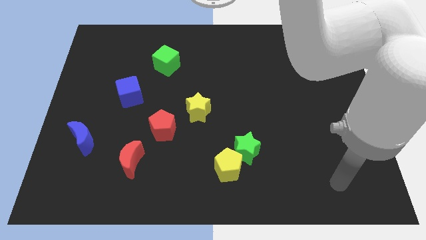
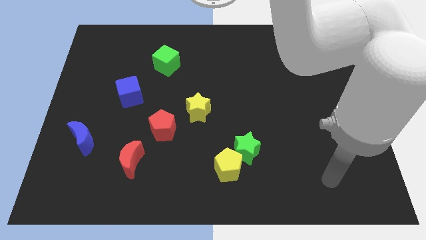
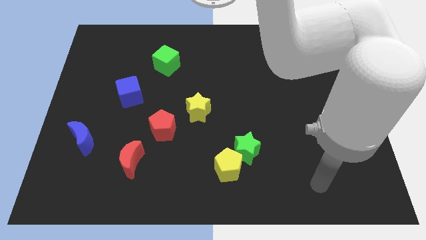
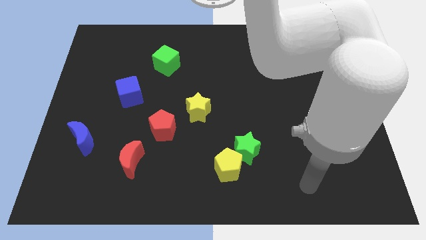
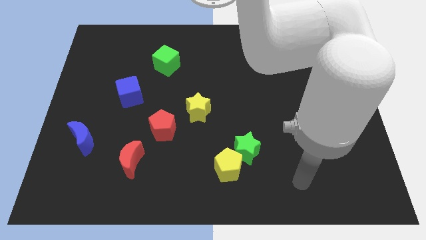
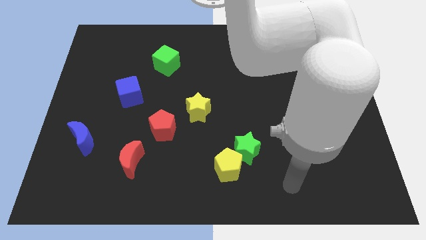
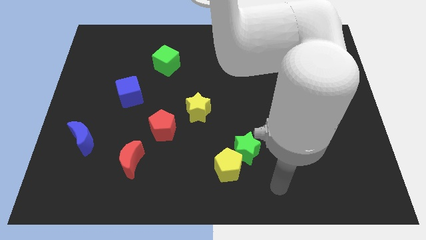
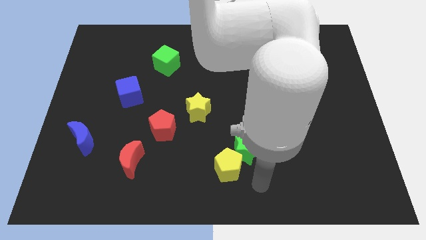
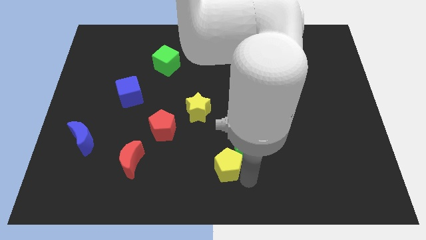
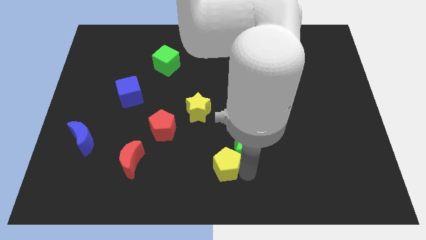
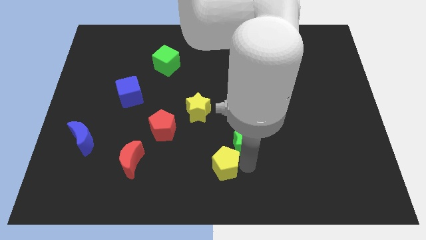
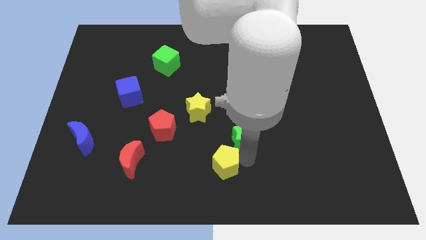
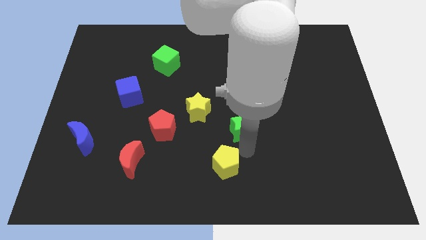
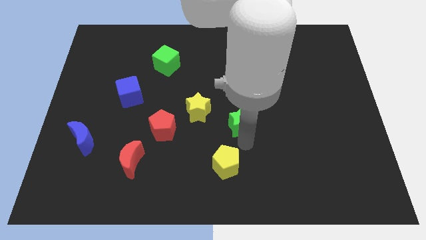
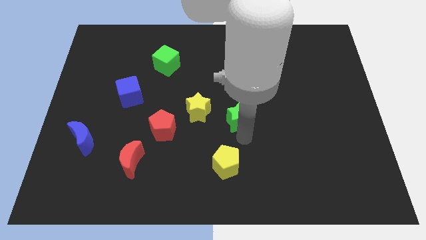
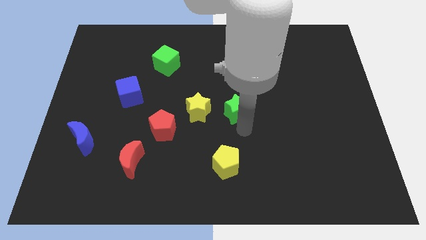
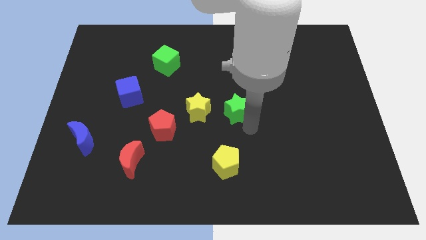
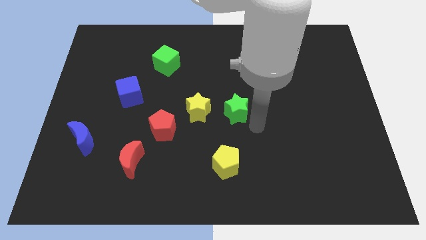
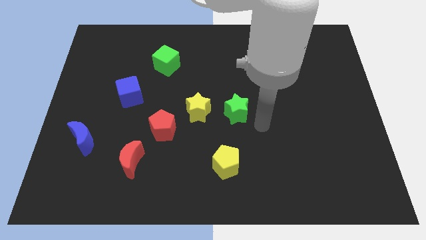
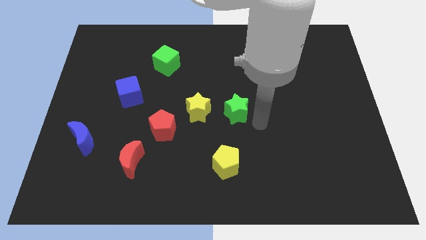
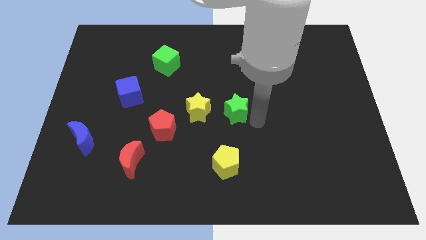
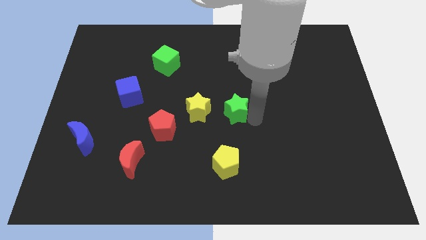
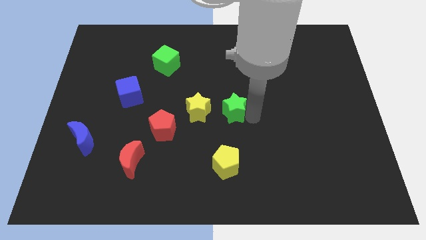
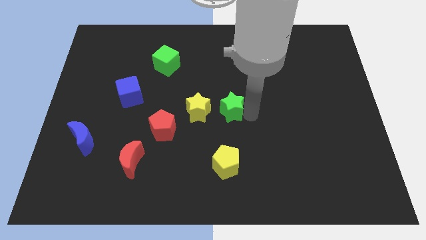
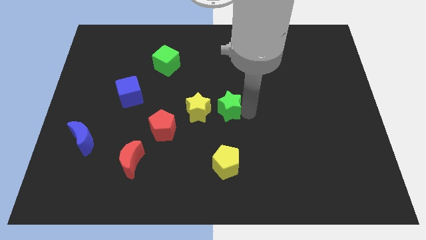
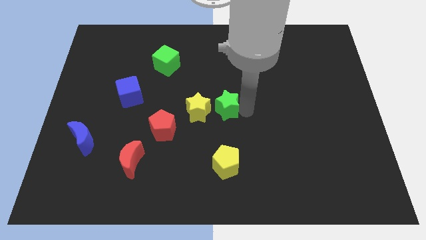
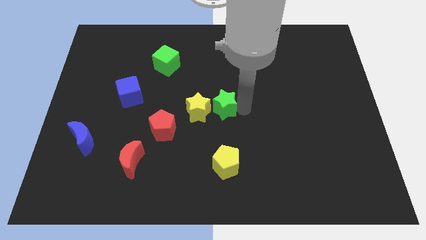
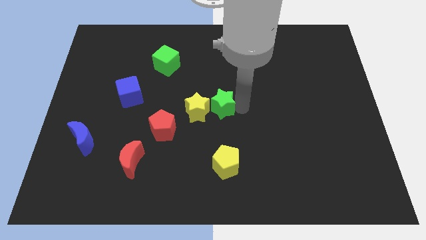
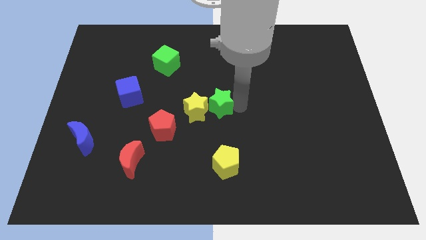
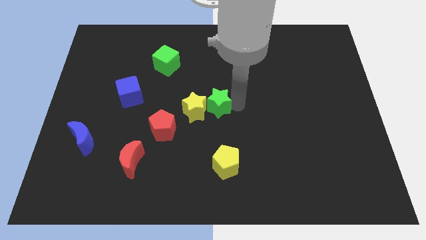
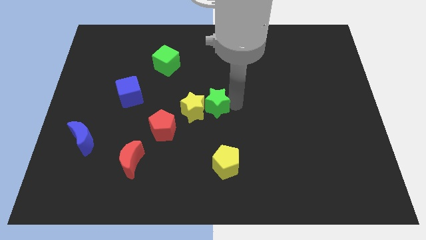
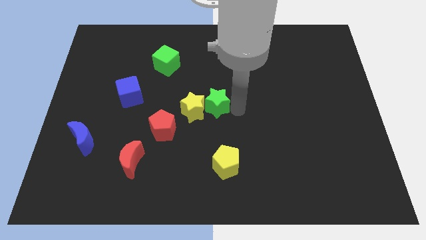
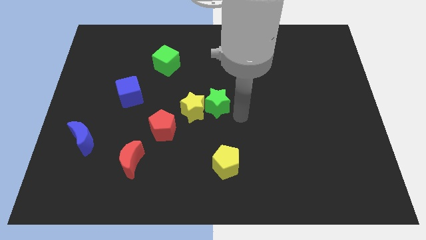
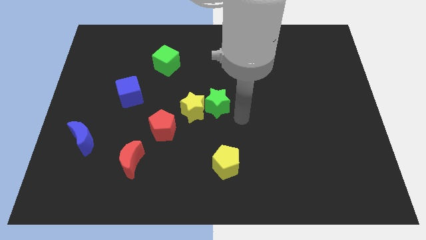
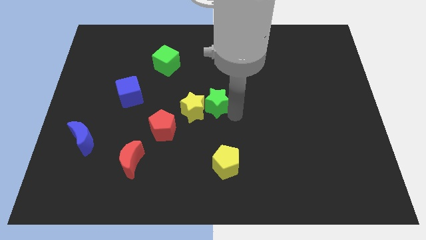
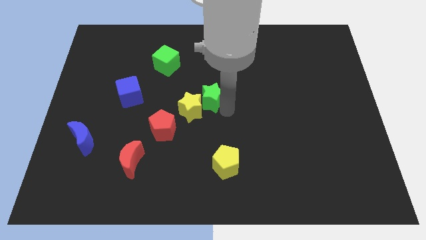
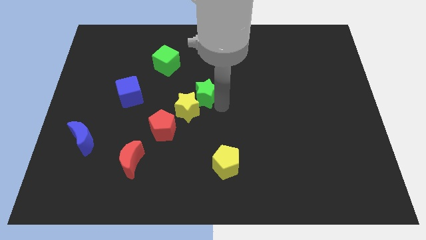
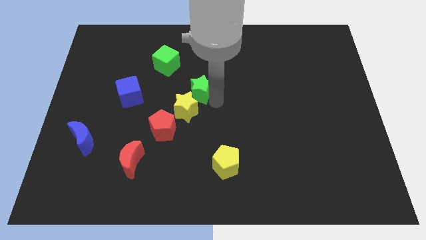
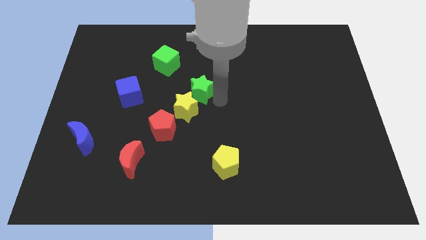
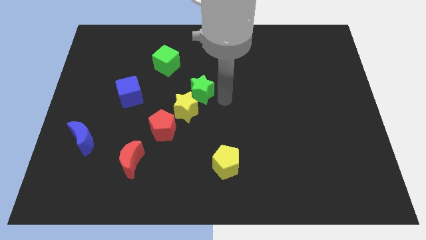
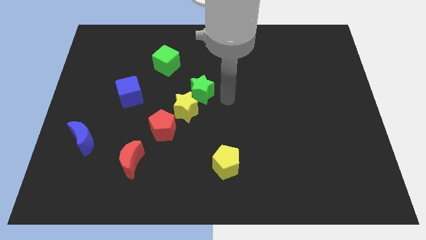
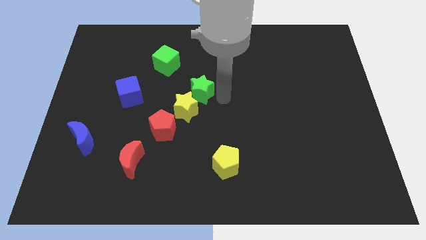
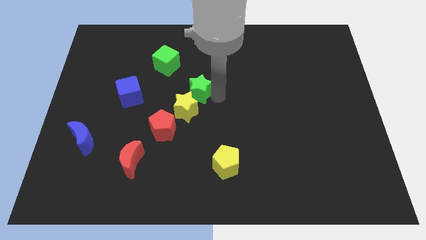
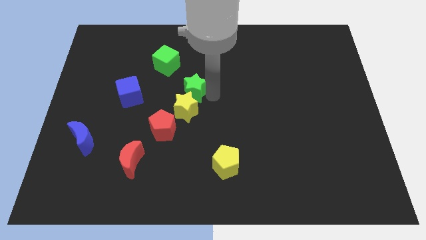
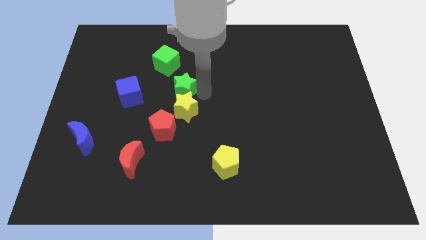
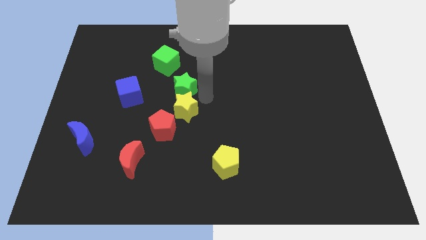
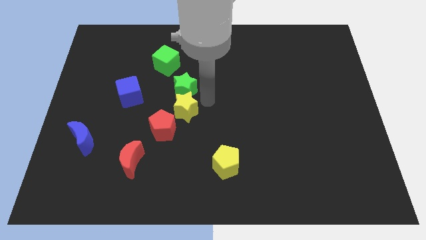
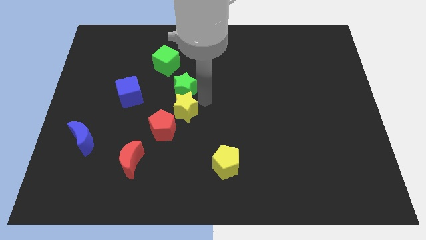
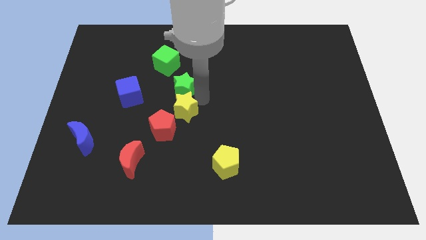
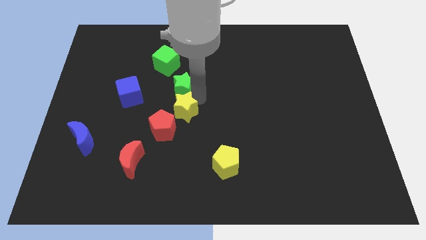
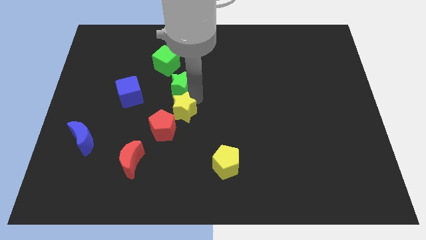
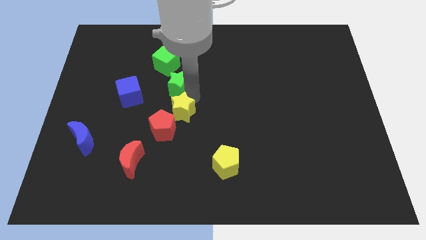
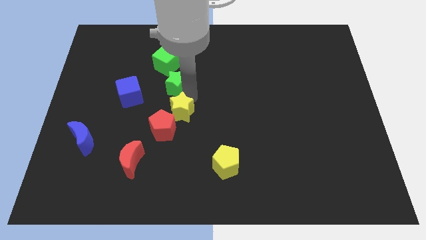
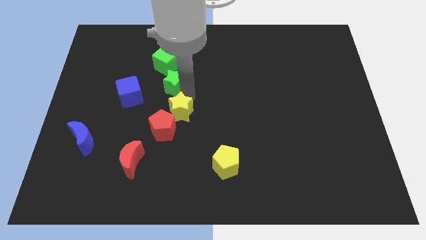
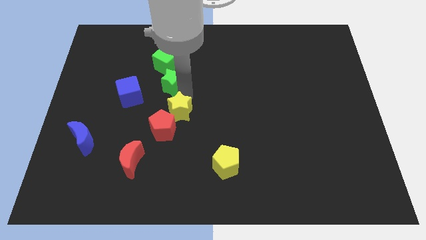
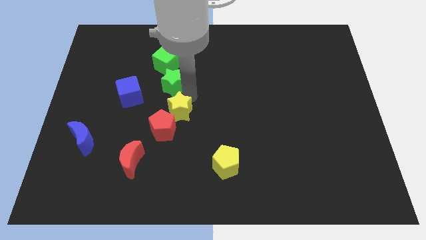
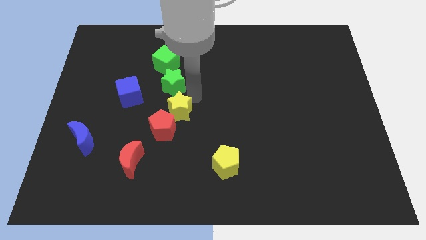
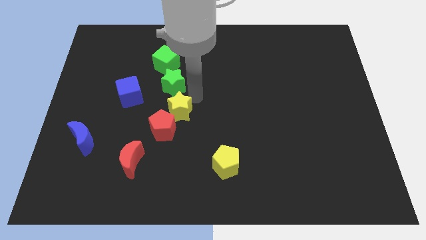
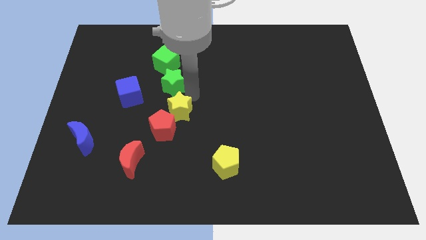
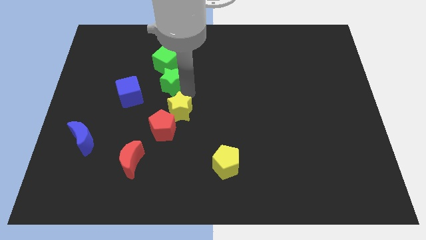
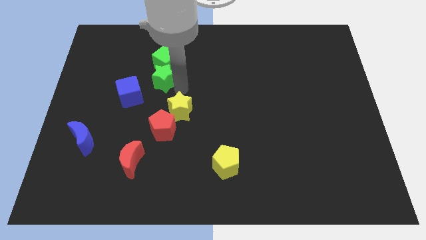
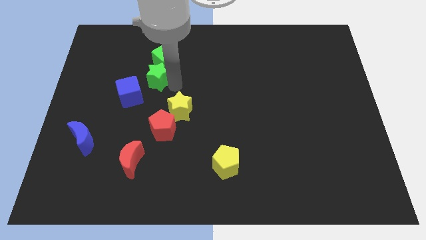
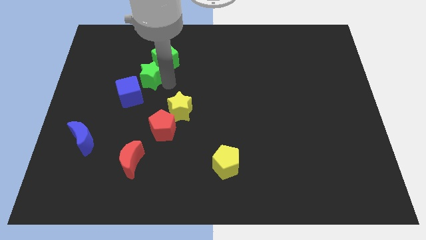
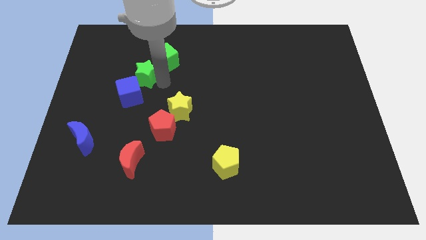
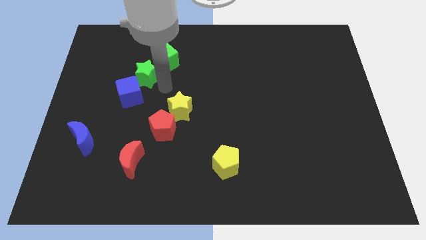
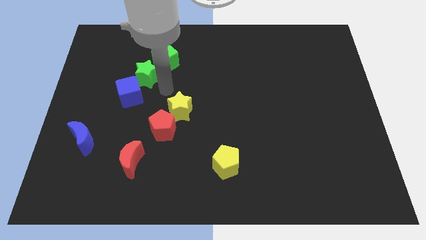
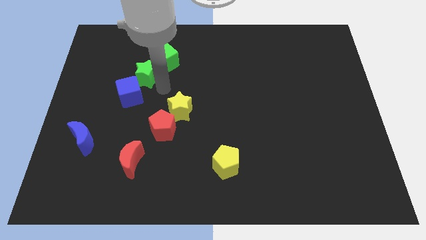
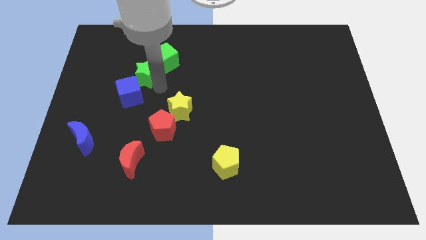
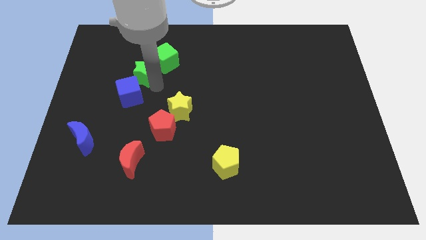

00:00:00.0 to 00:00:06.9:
put the green star just left of the green cube
